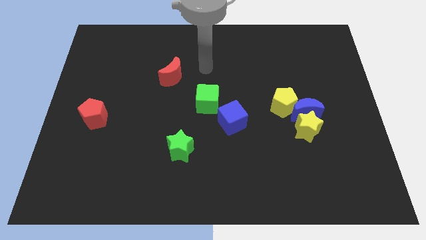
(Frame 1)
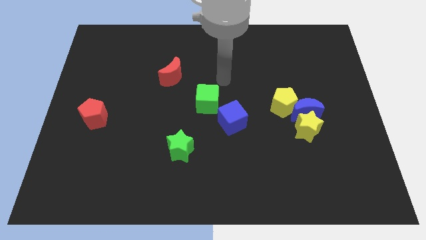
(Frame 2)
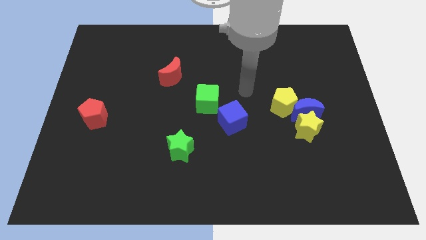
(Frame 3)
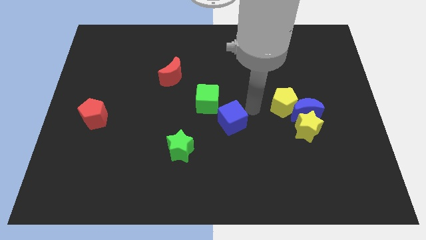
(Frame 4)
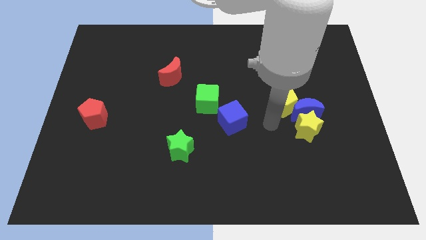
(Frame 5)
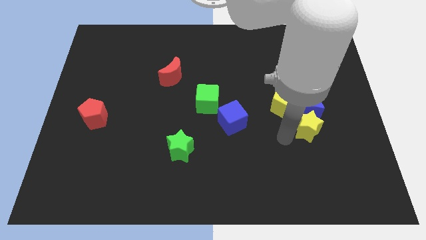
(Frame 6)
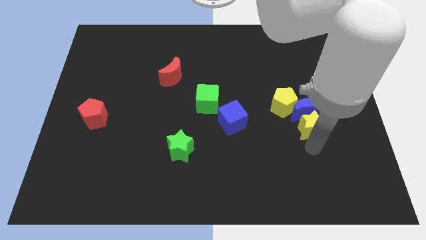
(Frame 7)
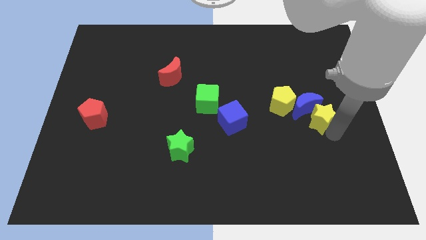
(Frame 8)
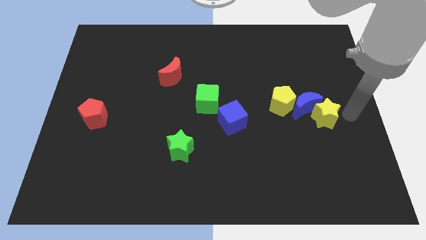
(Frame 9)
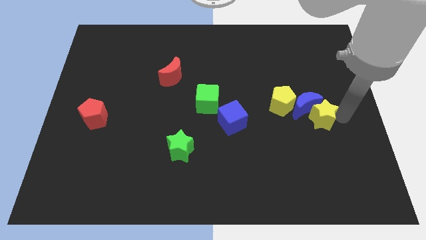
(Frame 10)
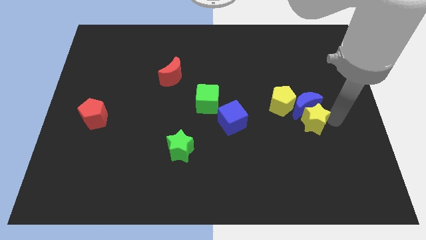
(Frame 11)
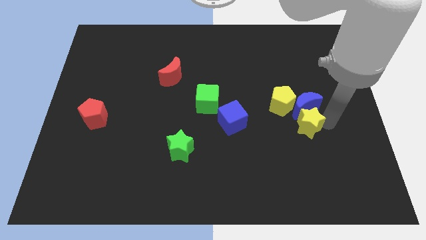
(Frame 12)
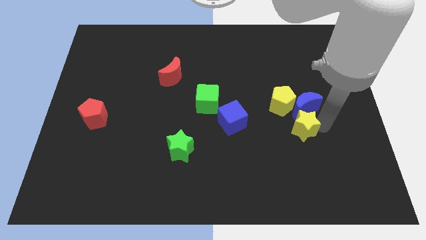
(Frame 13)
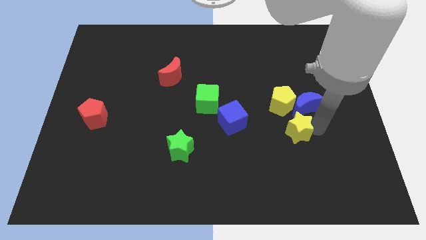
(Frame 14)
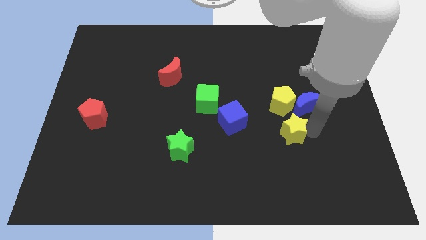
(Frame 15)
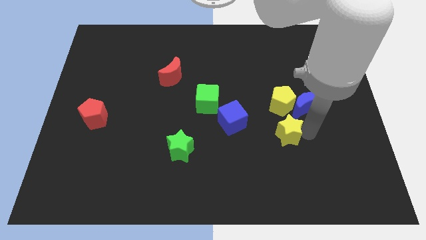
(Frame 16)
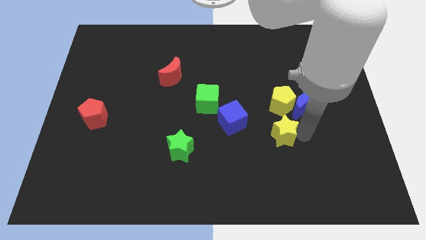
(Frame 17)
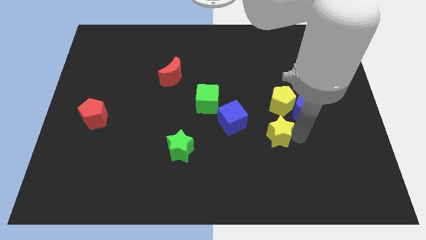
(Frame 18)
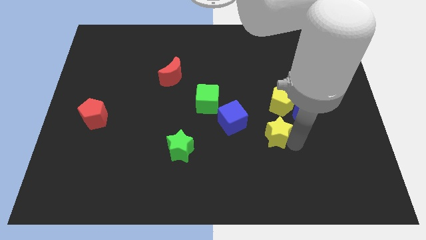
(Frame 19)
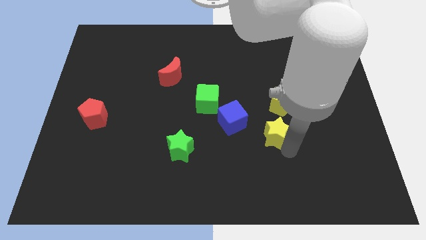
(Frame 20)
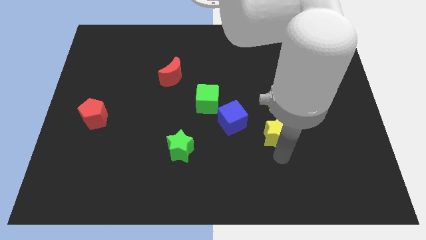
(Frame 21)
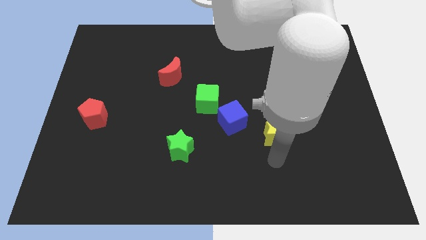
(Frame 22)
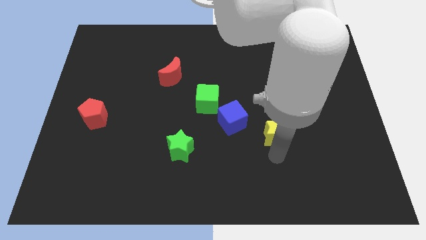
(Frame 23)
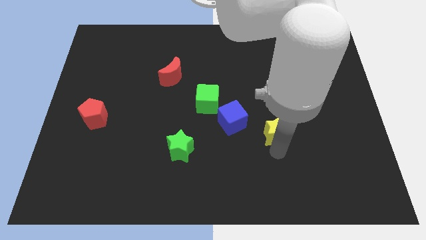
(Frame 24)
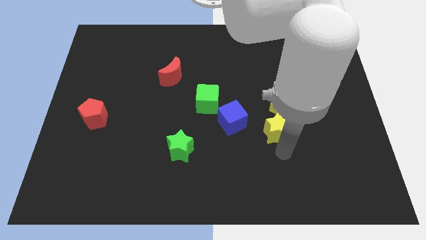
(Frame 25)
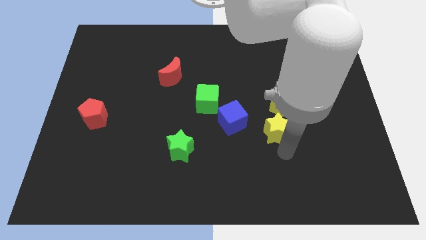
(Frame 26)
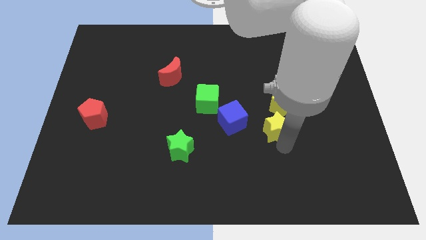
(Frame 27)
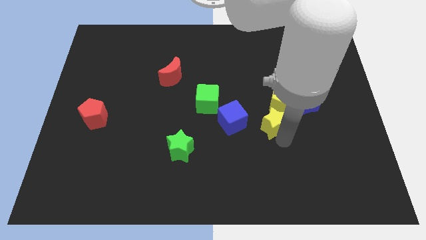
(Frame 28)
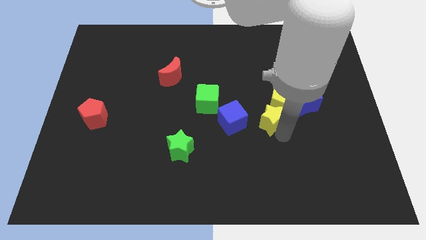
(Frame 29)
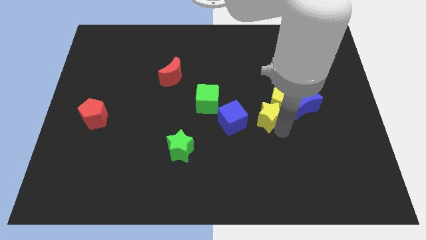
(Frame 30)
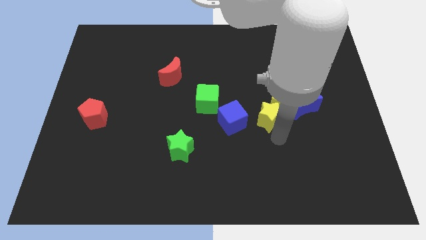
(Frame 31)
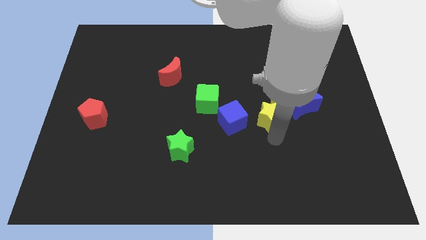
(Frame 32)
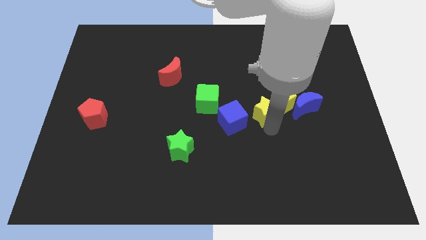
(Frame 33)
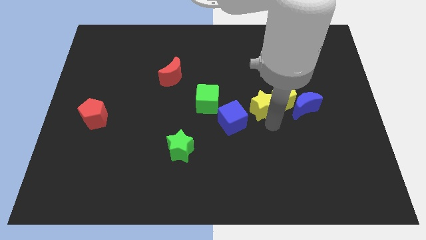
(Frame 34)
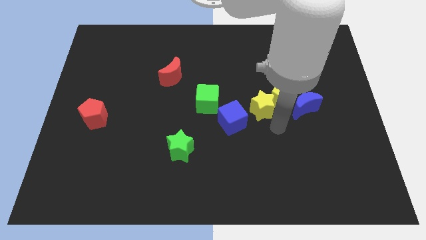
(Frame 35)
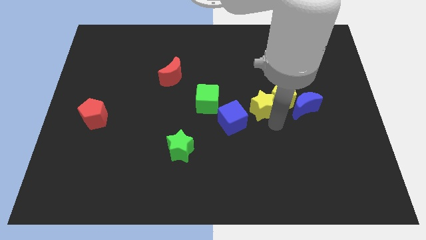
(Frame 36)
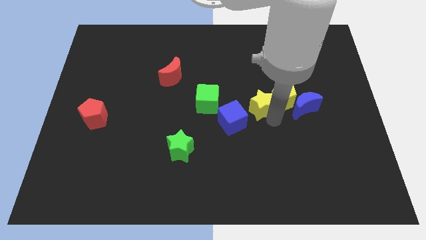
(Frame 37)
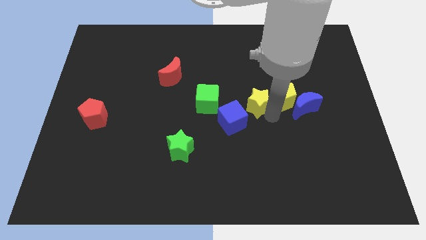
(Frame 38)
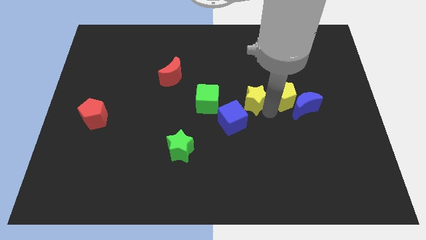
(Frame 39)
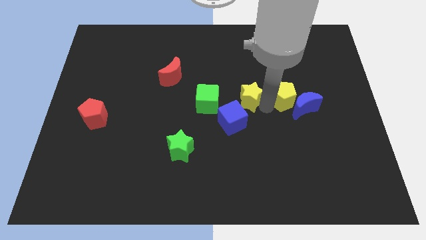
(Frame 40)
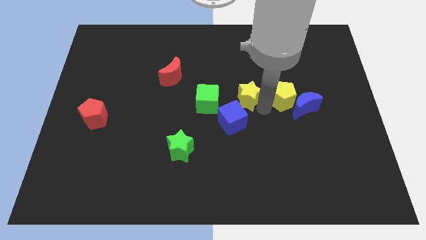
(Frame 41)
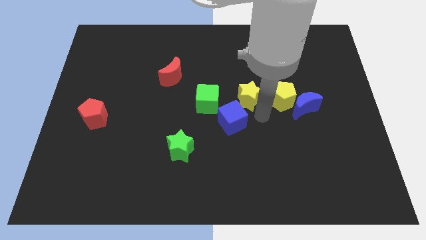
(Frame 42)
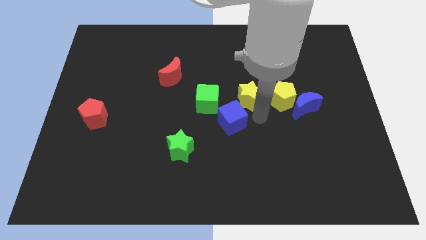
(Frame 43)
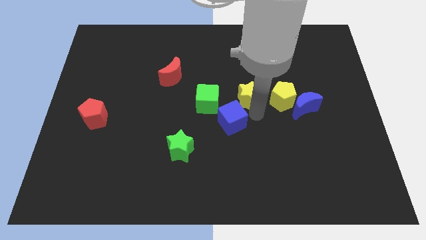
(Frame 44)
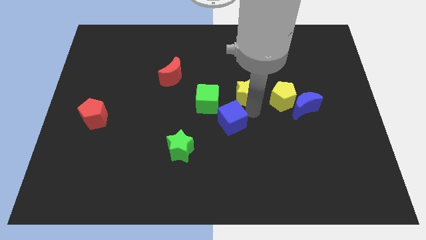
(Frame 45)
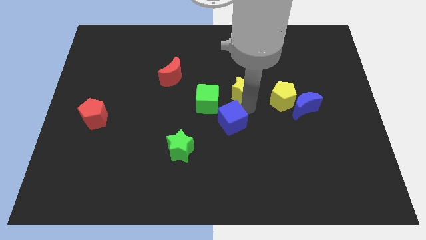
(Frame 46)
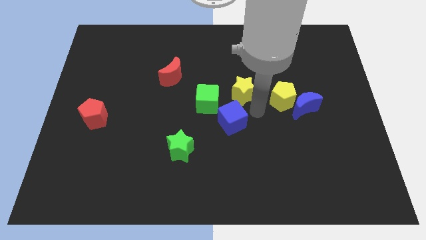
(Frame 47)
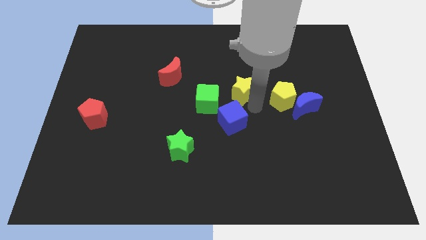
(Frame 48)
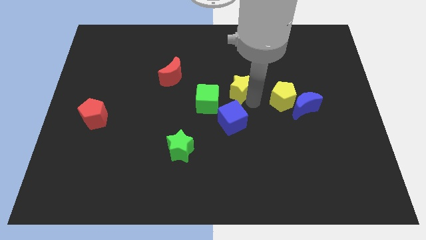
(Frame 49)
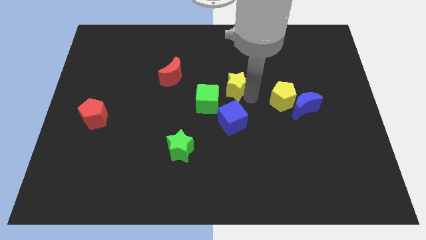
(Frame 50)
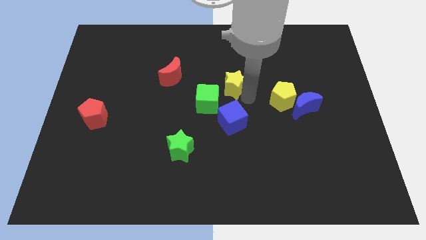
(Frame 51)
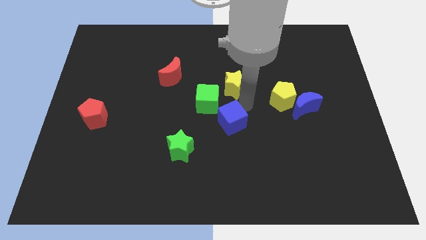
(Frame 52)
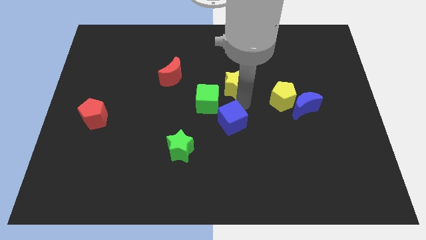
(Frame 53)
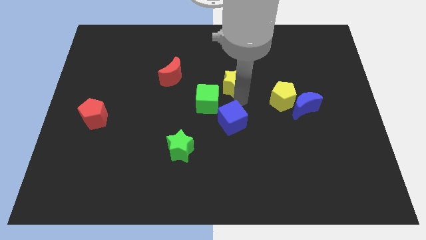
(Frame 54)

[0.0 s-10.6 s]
slide the yellow star diagonally up and left

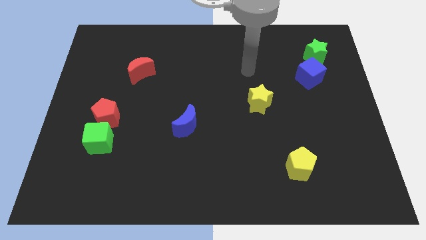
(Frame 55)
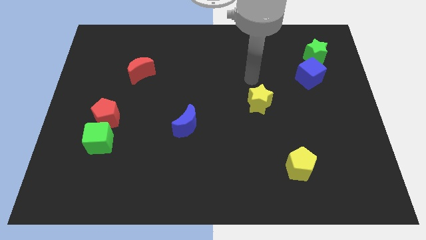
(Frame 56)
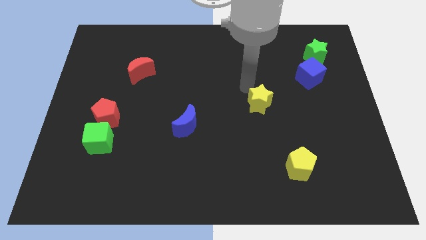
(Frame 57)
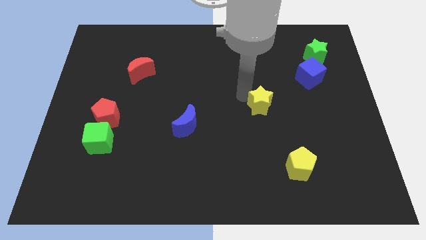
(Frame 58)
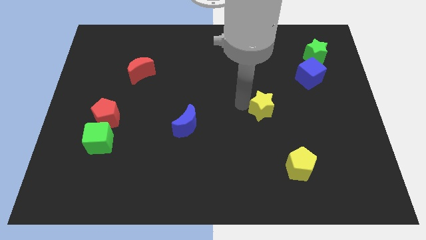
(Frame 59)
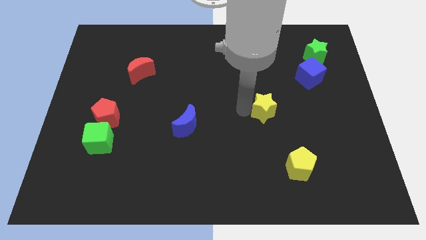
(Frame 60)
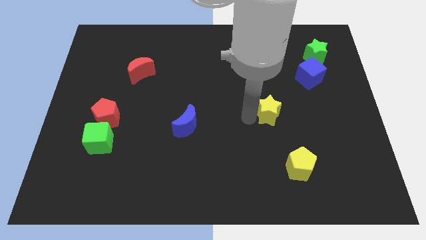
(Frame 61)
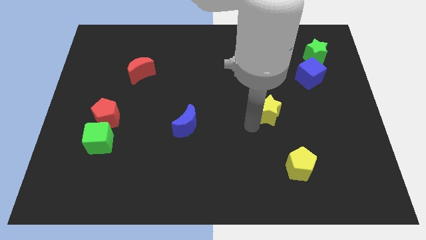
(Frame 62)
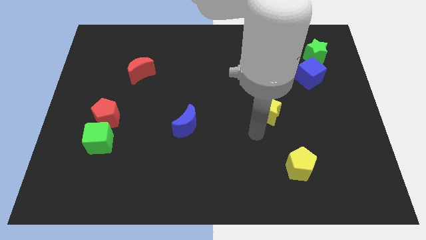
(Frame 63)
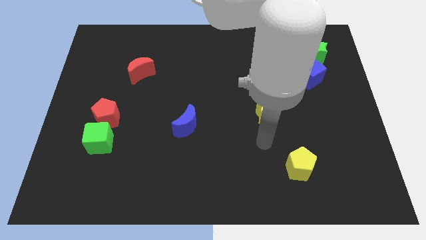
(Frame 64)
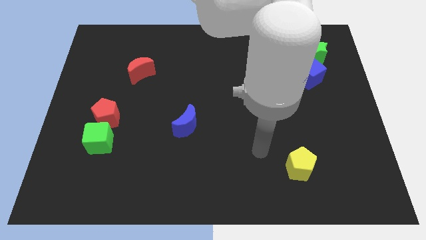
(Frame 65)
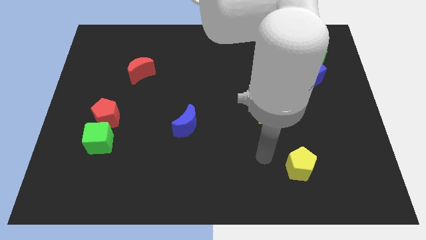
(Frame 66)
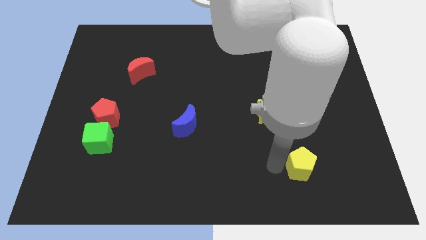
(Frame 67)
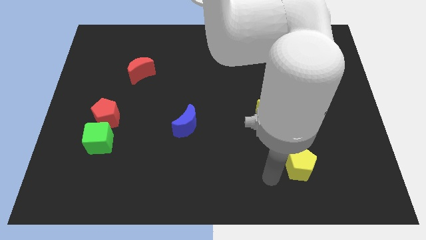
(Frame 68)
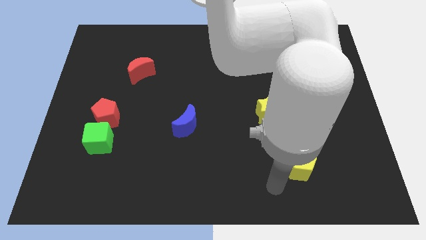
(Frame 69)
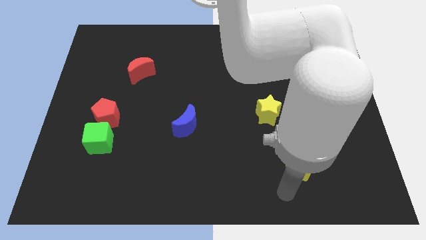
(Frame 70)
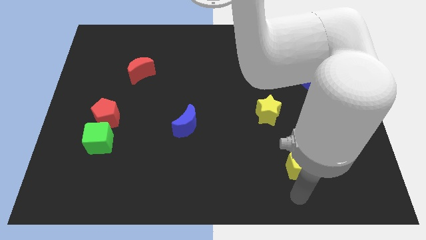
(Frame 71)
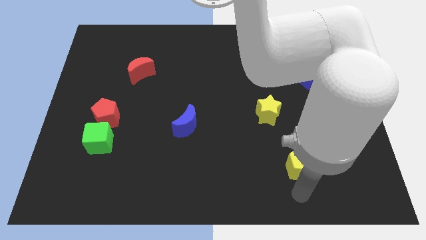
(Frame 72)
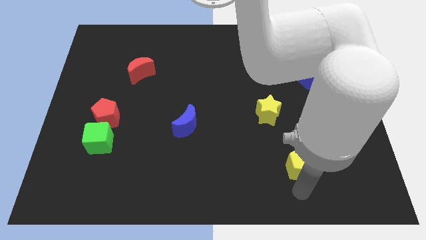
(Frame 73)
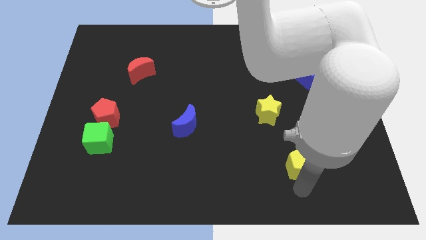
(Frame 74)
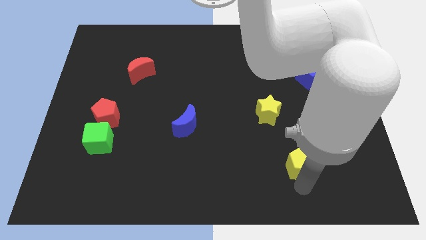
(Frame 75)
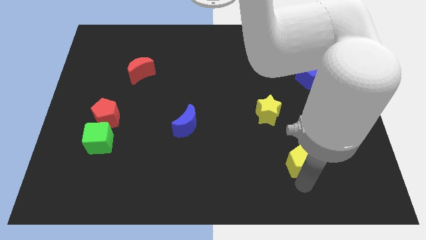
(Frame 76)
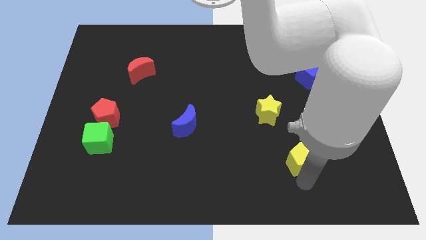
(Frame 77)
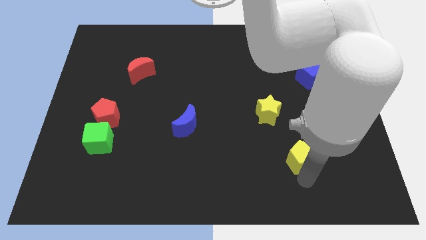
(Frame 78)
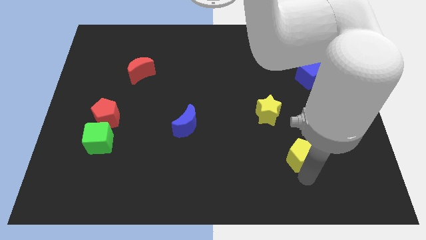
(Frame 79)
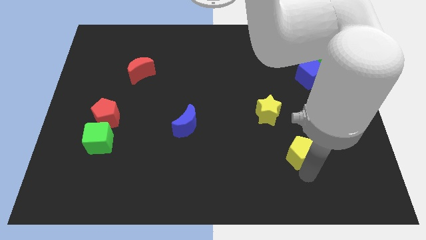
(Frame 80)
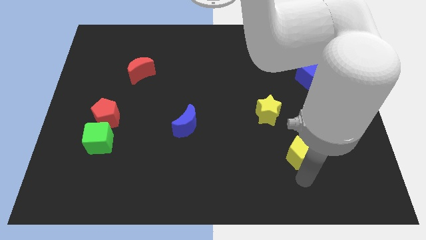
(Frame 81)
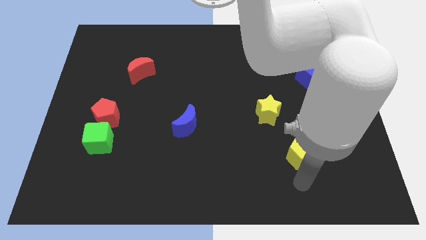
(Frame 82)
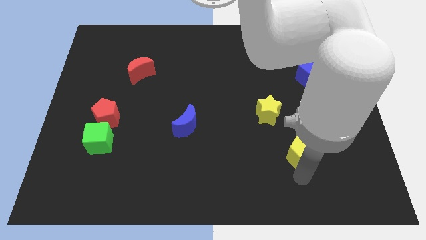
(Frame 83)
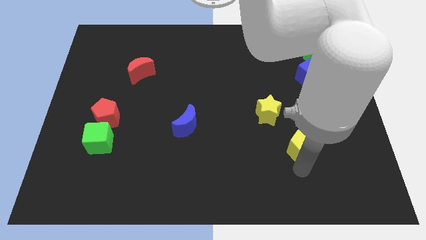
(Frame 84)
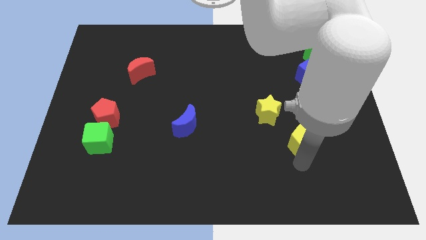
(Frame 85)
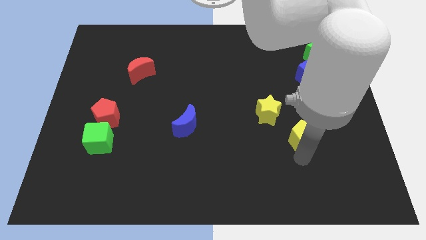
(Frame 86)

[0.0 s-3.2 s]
slightly push the yellow pentagon upwards
